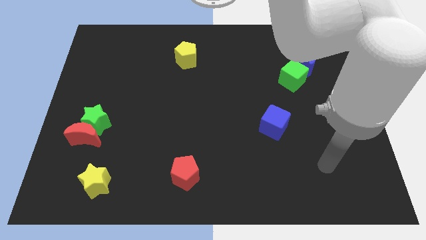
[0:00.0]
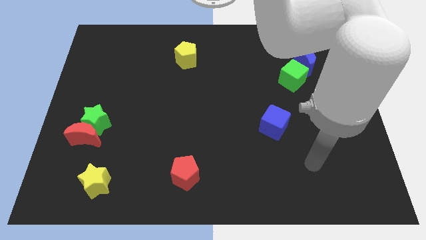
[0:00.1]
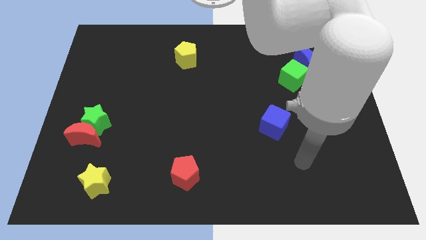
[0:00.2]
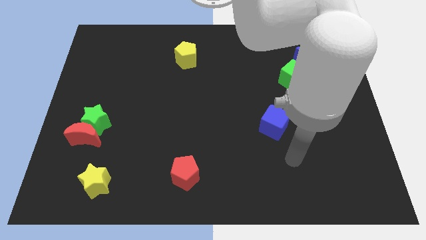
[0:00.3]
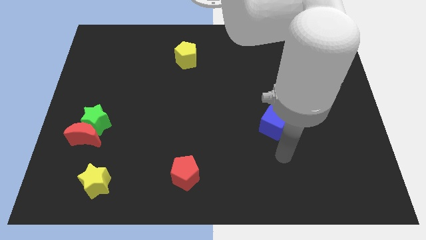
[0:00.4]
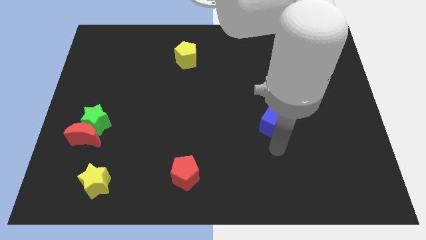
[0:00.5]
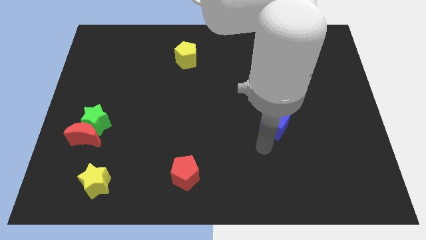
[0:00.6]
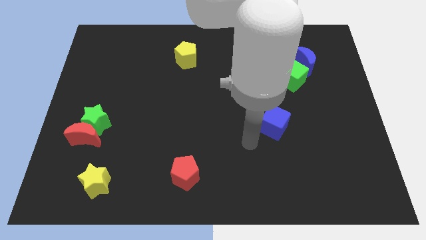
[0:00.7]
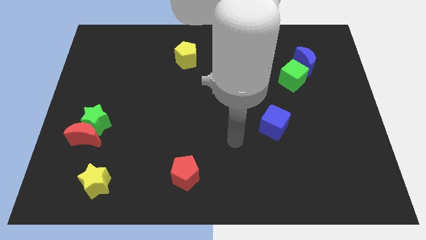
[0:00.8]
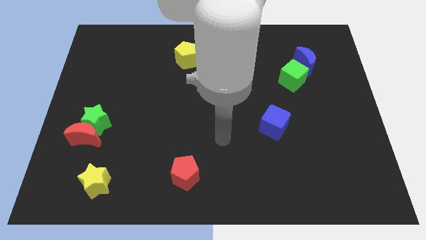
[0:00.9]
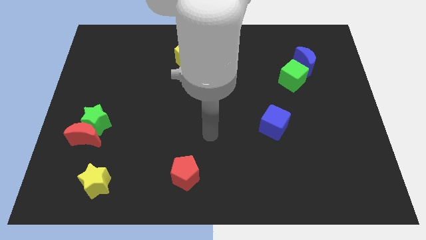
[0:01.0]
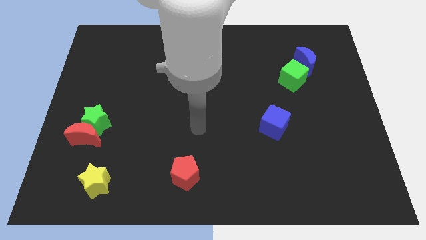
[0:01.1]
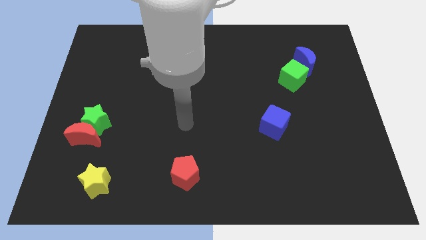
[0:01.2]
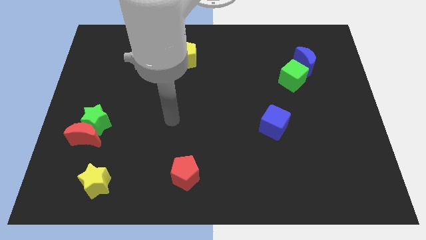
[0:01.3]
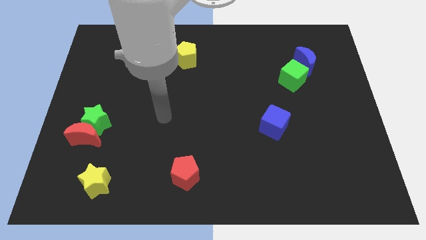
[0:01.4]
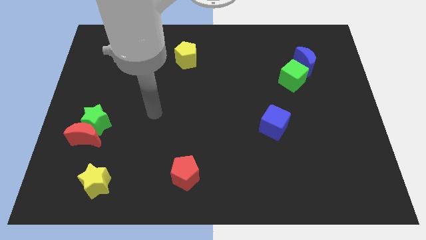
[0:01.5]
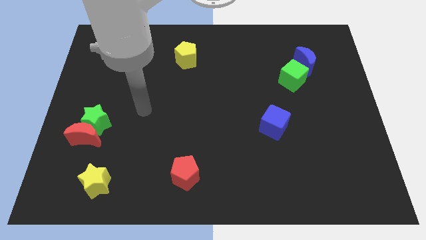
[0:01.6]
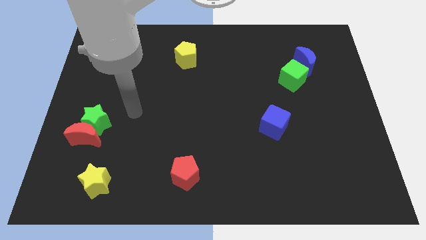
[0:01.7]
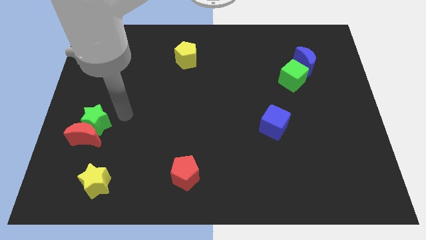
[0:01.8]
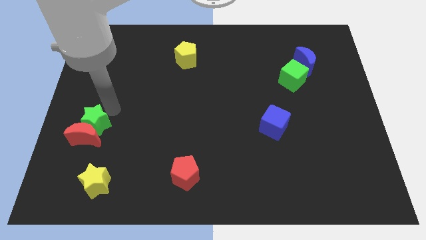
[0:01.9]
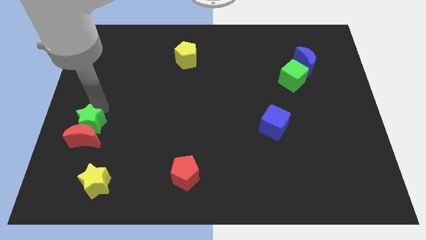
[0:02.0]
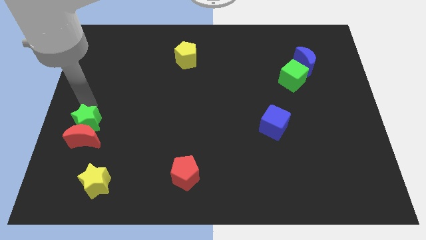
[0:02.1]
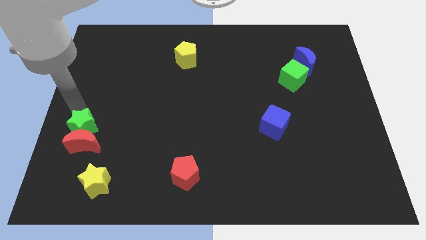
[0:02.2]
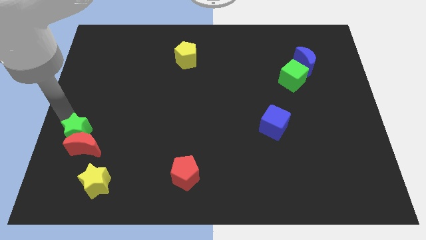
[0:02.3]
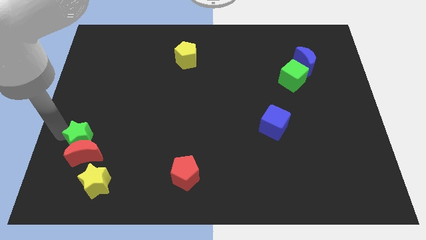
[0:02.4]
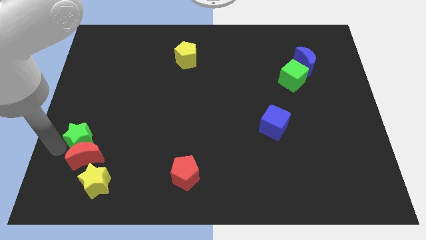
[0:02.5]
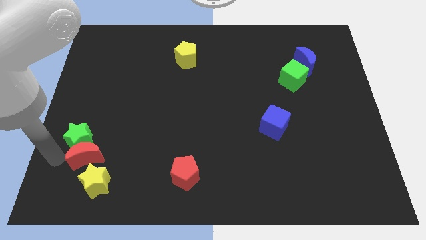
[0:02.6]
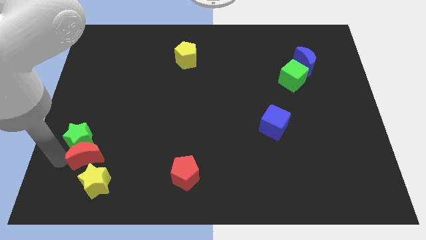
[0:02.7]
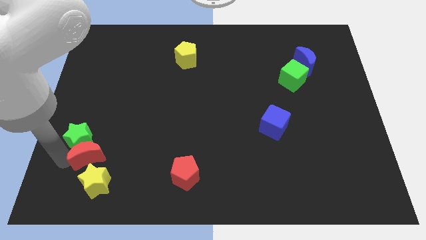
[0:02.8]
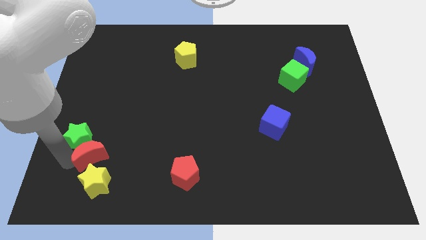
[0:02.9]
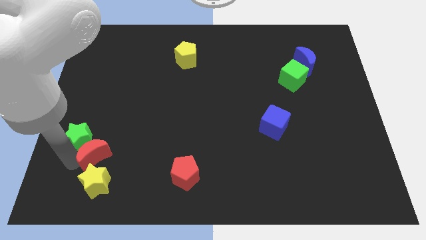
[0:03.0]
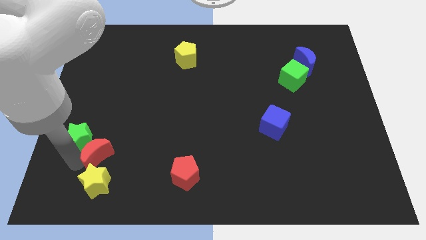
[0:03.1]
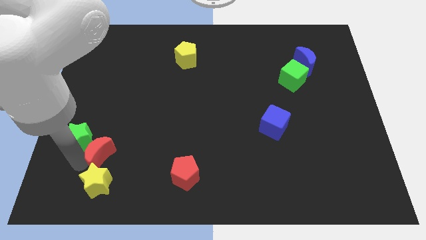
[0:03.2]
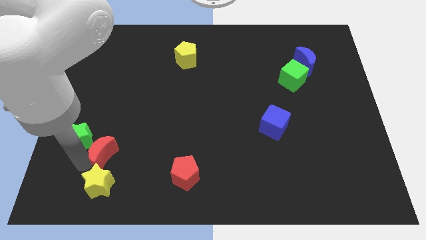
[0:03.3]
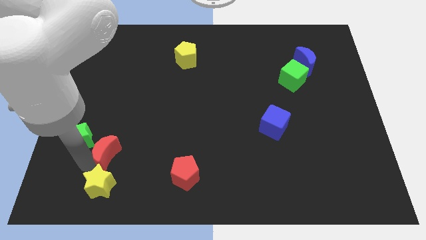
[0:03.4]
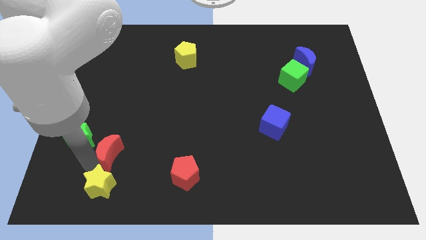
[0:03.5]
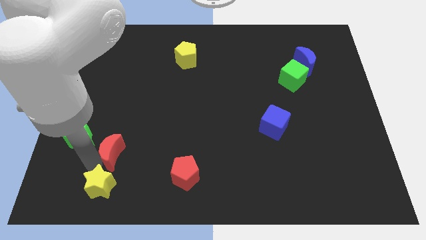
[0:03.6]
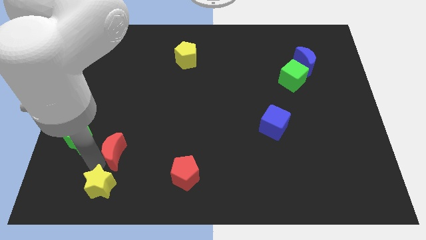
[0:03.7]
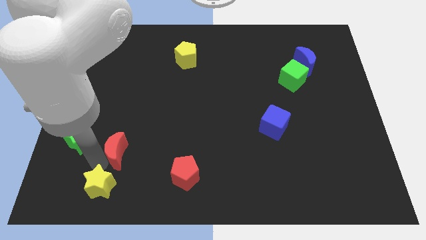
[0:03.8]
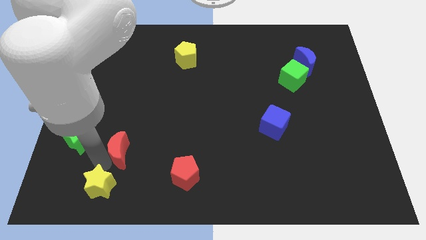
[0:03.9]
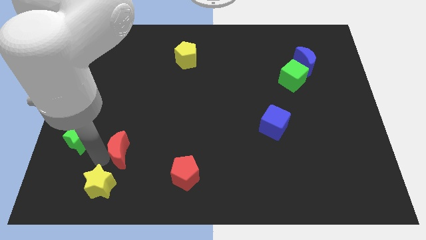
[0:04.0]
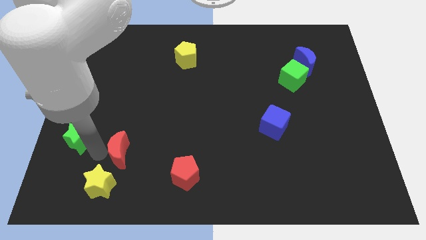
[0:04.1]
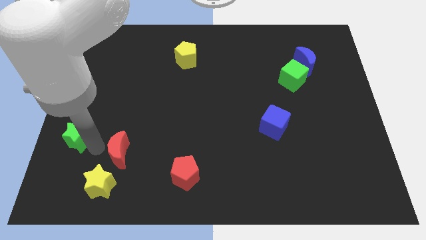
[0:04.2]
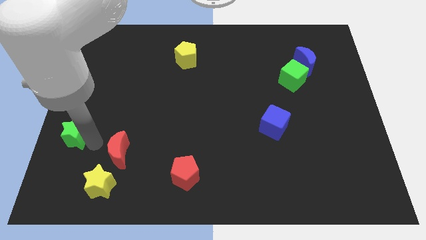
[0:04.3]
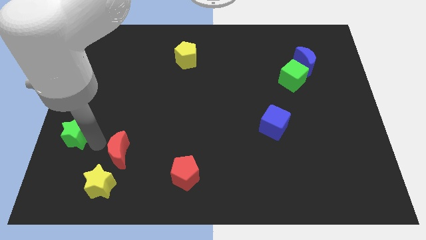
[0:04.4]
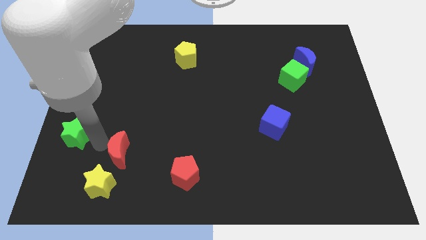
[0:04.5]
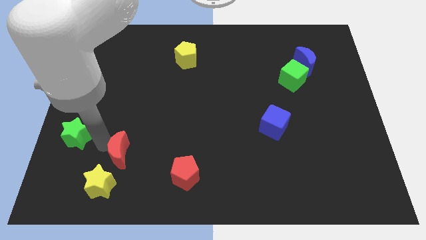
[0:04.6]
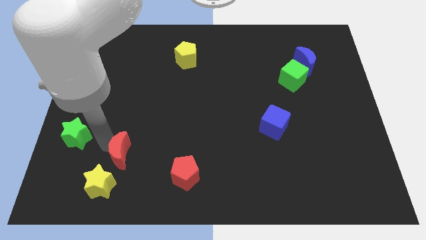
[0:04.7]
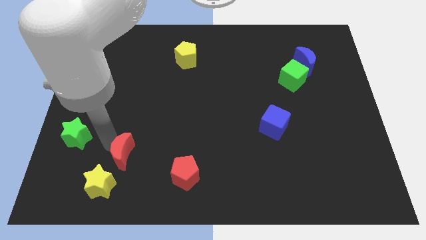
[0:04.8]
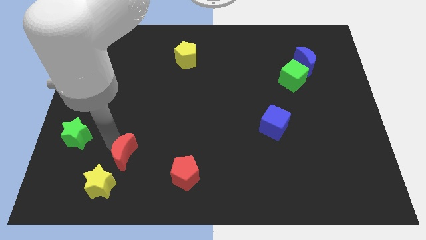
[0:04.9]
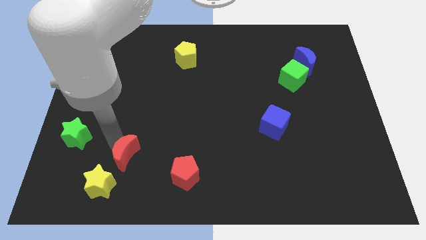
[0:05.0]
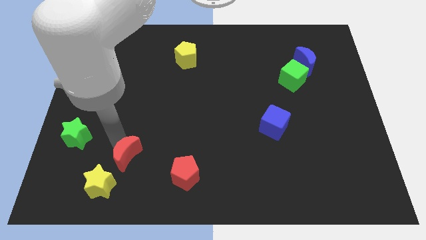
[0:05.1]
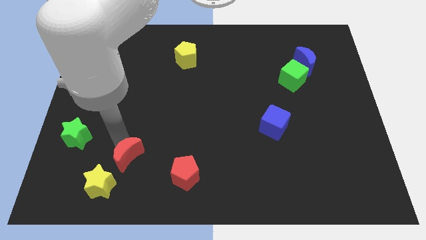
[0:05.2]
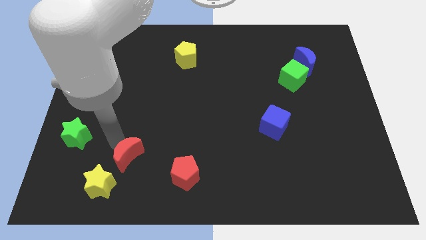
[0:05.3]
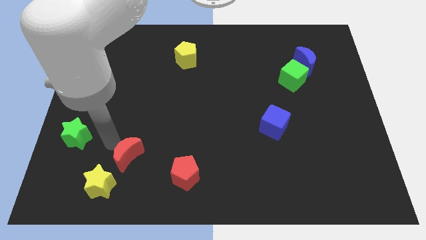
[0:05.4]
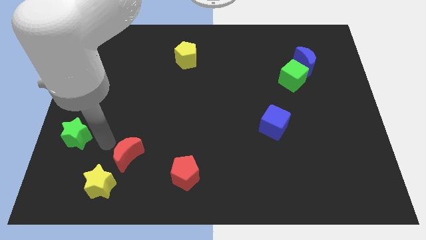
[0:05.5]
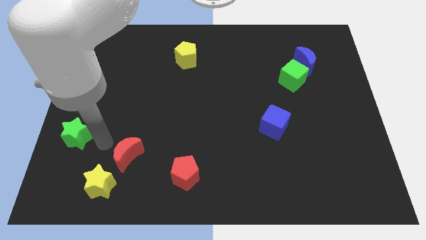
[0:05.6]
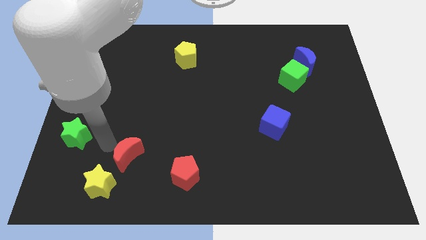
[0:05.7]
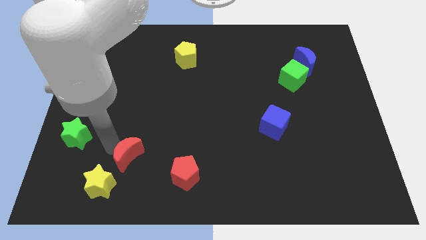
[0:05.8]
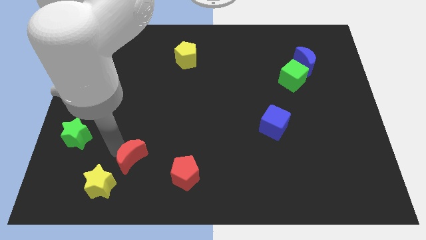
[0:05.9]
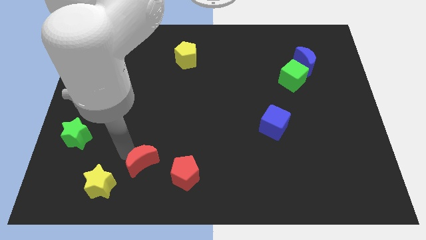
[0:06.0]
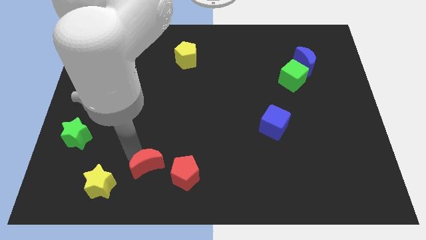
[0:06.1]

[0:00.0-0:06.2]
push the red moon to the right of the yellow star

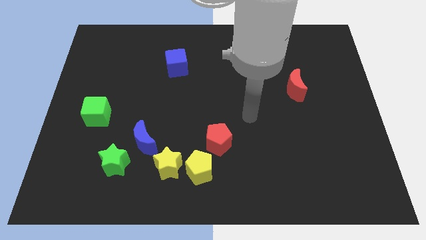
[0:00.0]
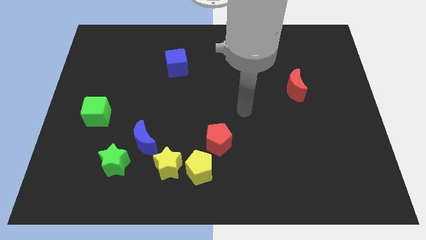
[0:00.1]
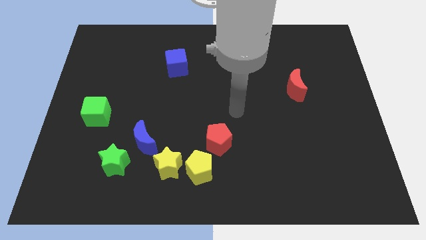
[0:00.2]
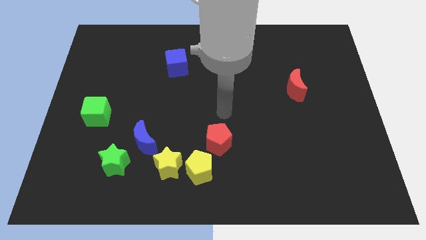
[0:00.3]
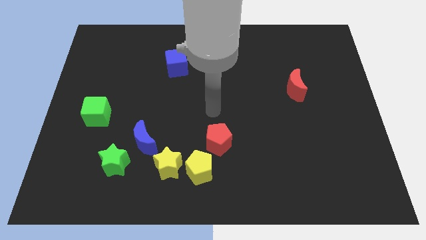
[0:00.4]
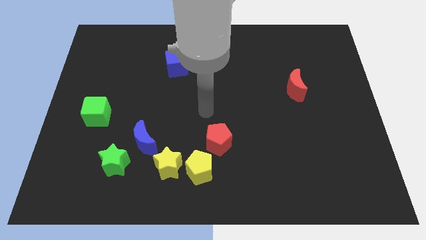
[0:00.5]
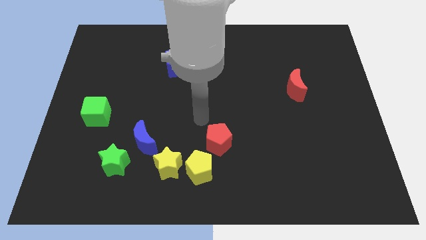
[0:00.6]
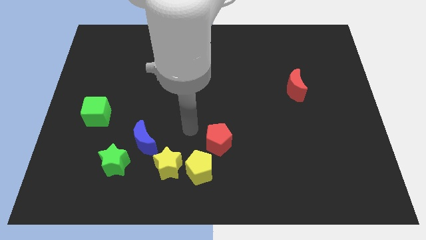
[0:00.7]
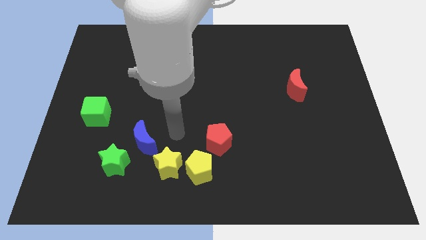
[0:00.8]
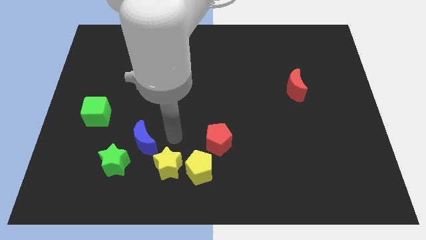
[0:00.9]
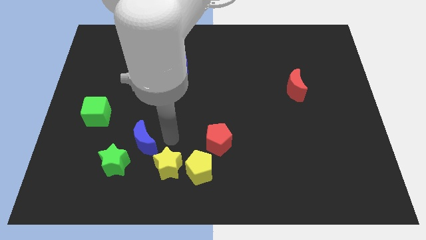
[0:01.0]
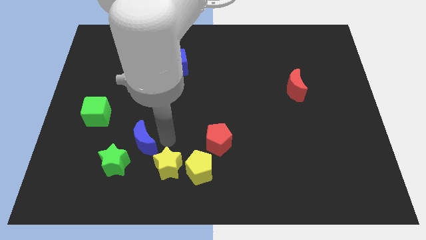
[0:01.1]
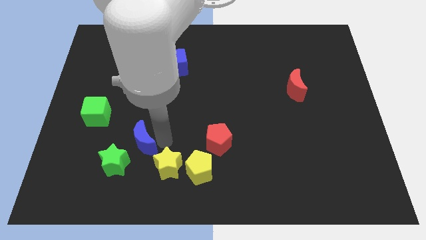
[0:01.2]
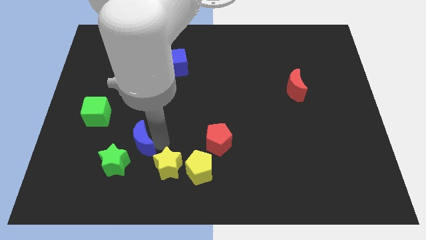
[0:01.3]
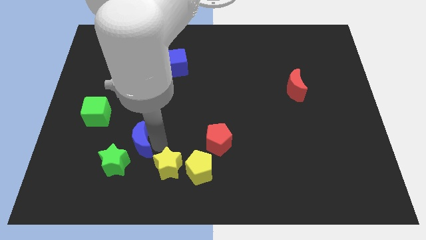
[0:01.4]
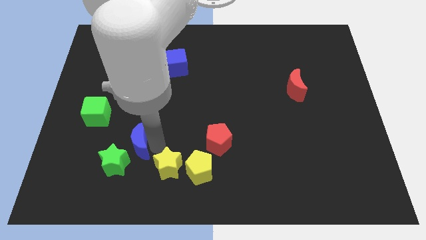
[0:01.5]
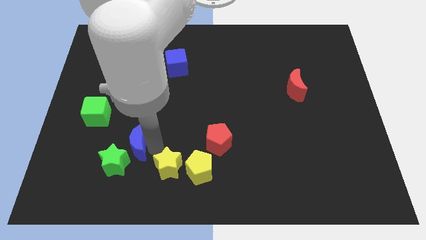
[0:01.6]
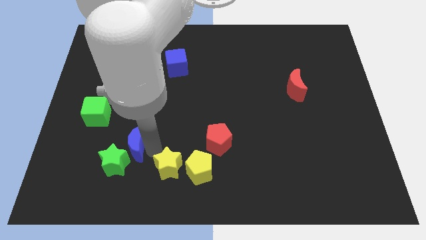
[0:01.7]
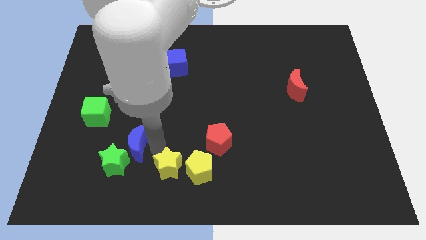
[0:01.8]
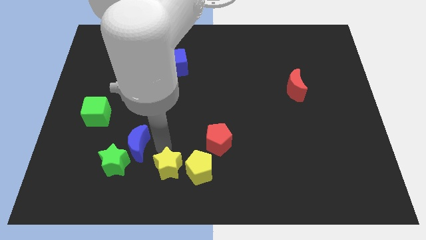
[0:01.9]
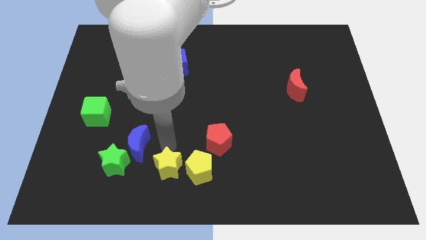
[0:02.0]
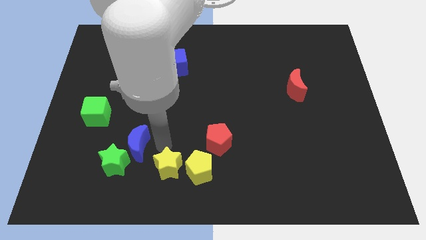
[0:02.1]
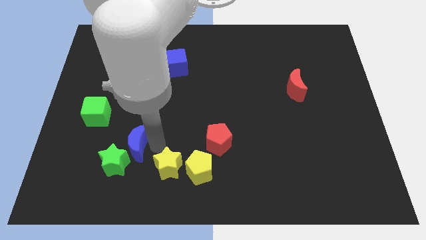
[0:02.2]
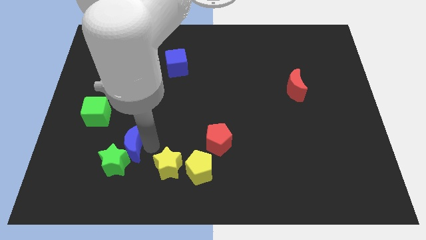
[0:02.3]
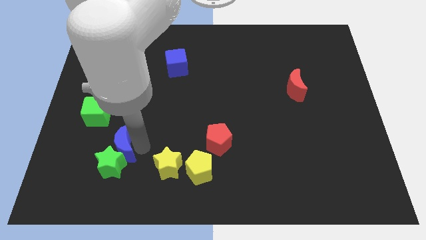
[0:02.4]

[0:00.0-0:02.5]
put the blue moon diagonally up and to the left of the green star
